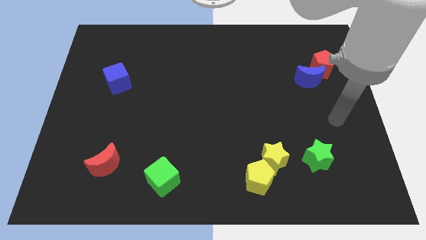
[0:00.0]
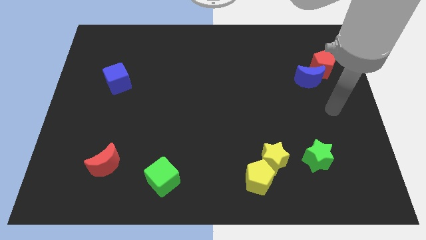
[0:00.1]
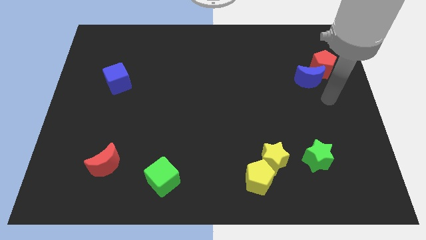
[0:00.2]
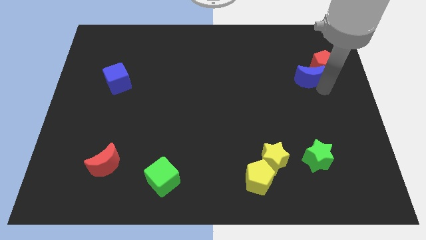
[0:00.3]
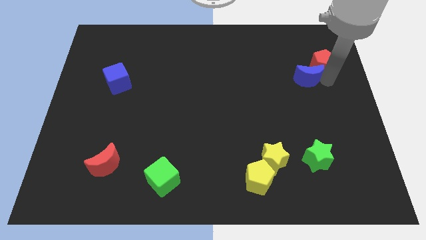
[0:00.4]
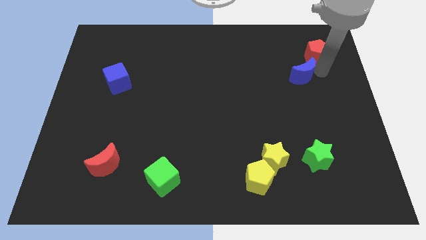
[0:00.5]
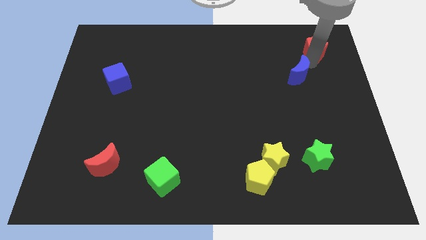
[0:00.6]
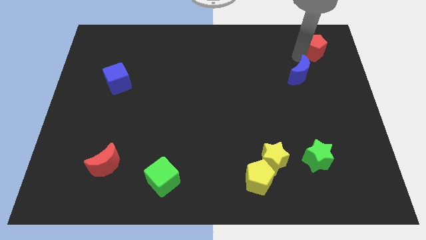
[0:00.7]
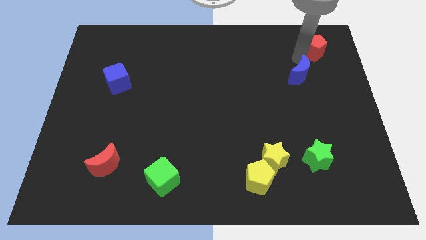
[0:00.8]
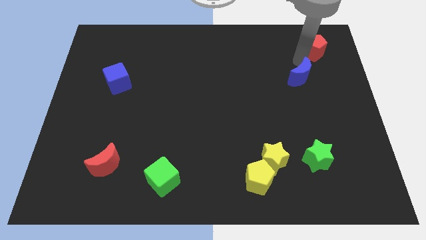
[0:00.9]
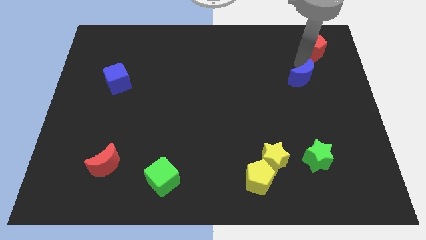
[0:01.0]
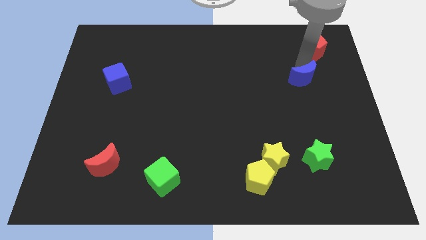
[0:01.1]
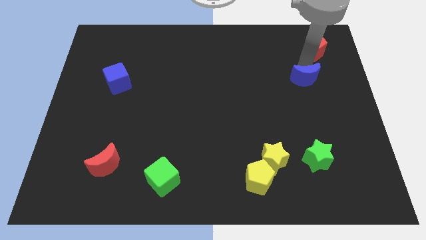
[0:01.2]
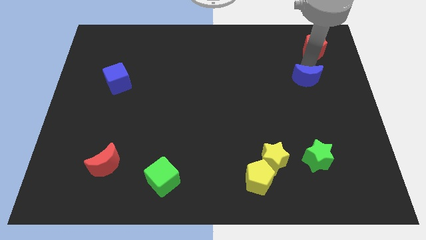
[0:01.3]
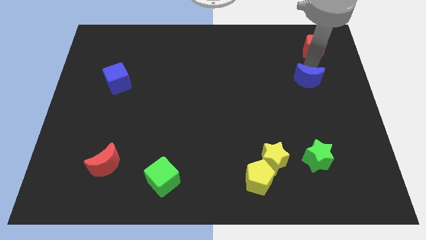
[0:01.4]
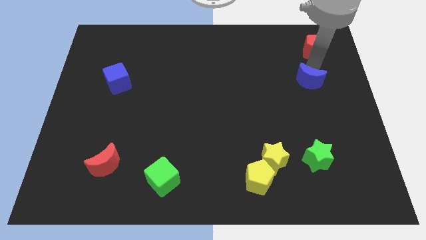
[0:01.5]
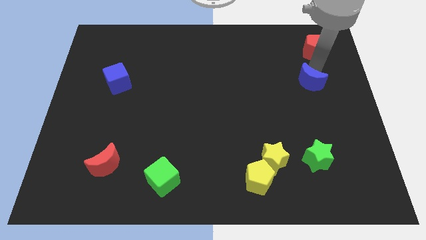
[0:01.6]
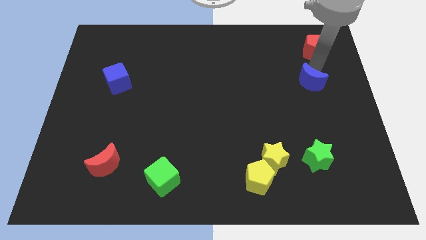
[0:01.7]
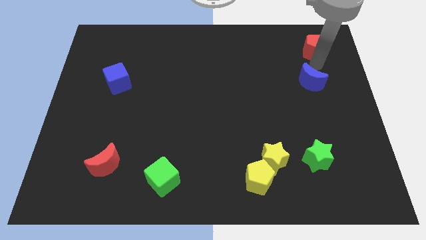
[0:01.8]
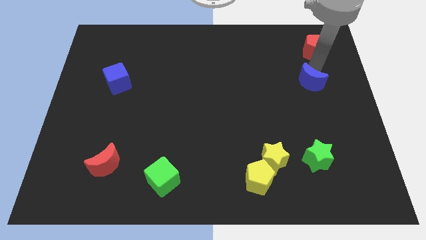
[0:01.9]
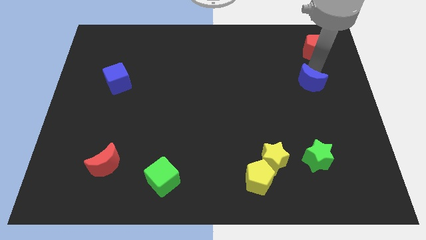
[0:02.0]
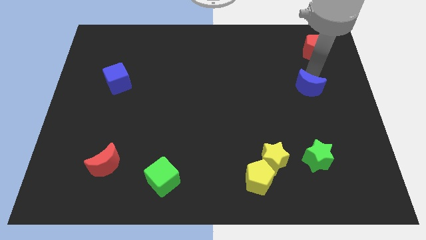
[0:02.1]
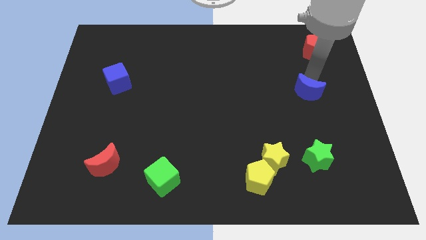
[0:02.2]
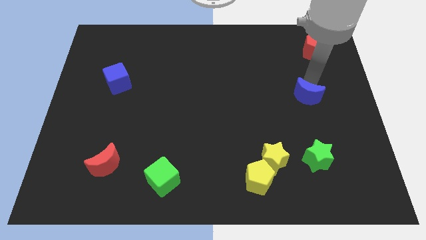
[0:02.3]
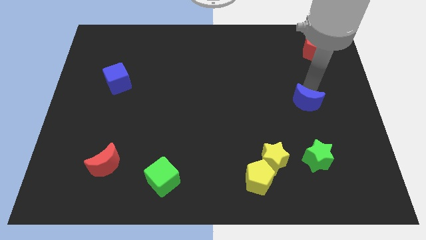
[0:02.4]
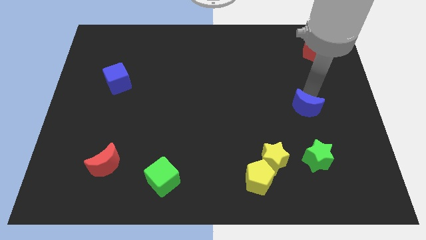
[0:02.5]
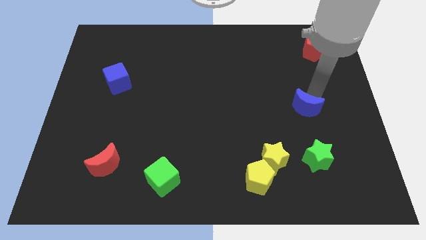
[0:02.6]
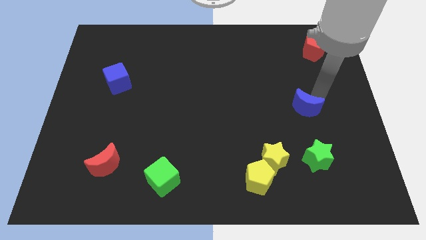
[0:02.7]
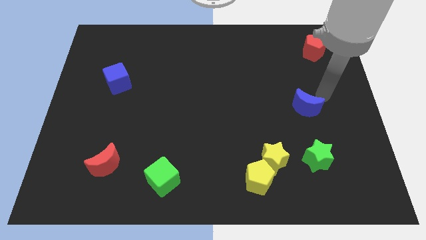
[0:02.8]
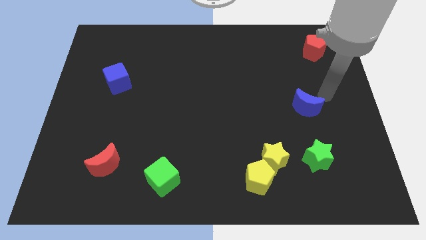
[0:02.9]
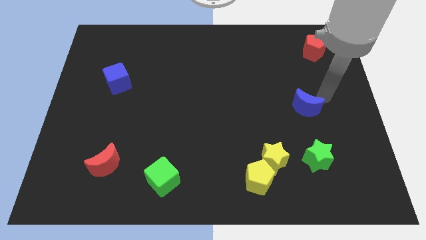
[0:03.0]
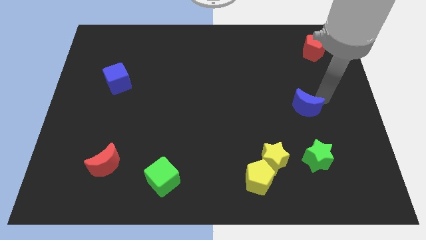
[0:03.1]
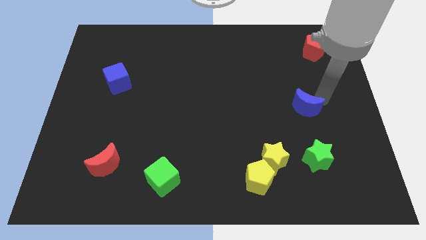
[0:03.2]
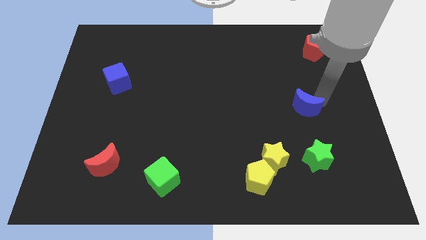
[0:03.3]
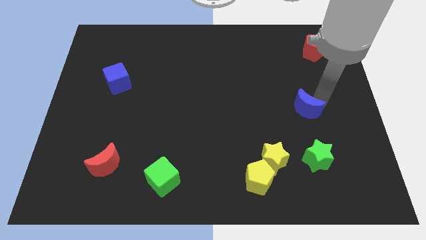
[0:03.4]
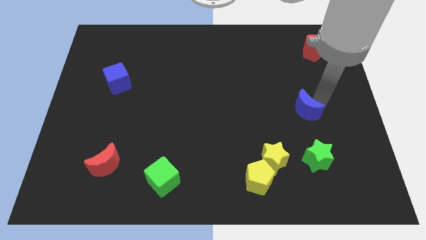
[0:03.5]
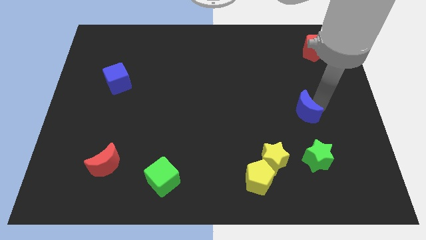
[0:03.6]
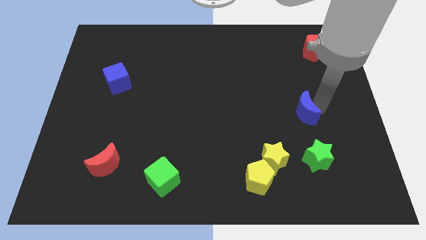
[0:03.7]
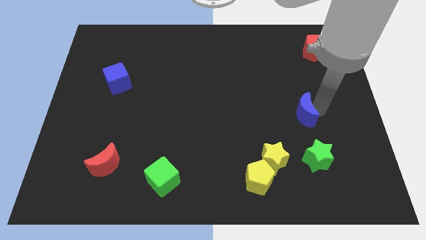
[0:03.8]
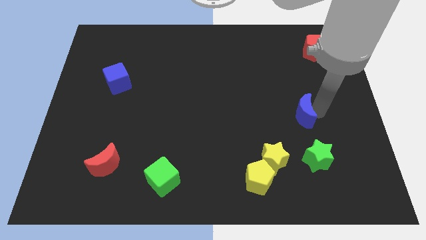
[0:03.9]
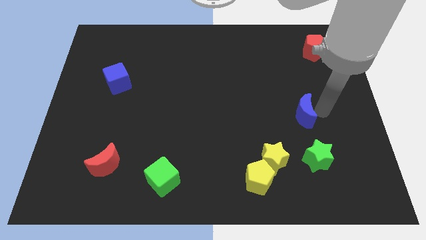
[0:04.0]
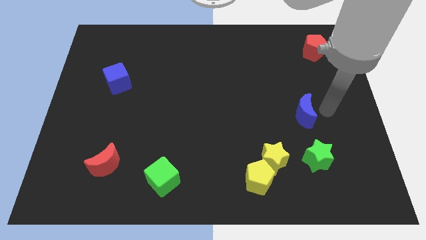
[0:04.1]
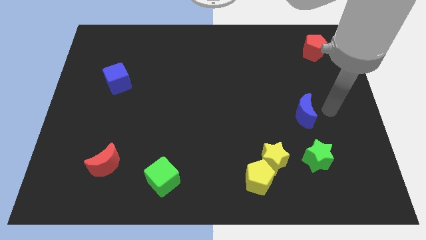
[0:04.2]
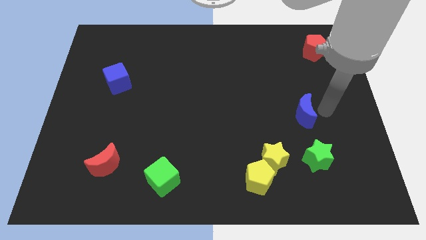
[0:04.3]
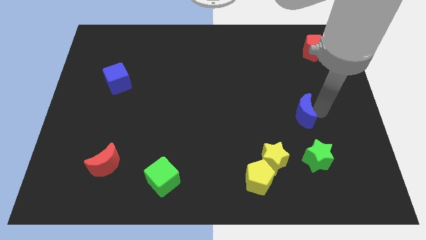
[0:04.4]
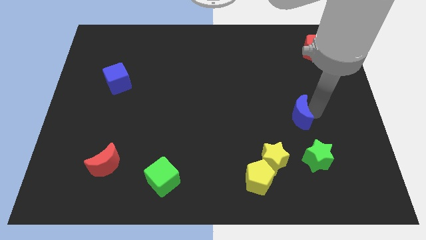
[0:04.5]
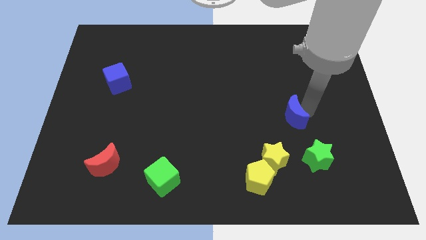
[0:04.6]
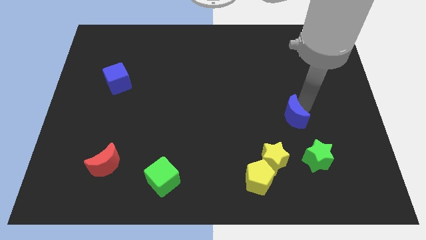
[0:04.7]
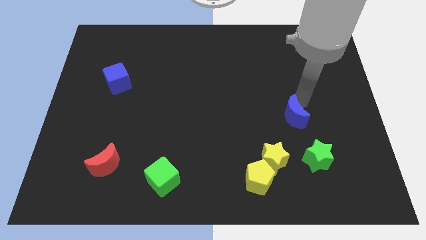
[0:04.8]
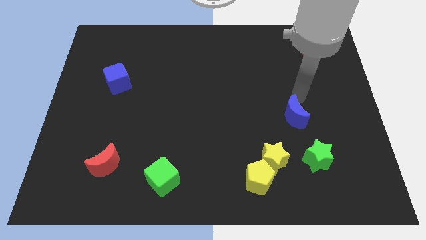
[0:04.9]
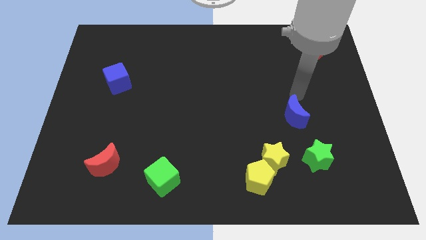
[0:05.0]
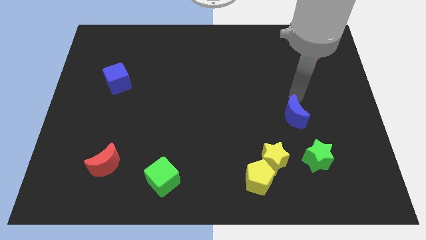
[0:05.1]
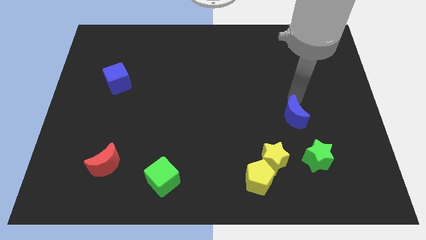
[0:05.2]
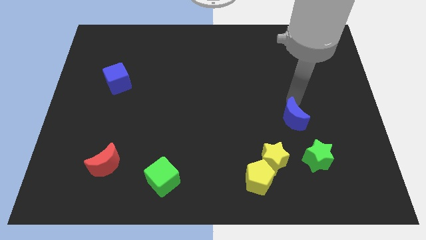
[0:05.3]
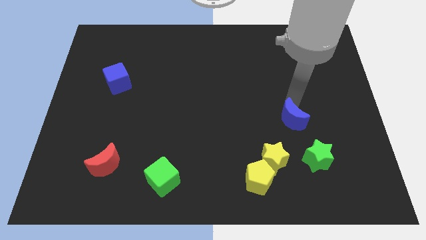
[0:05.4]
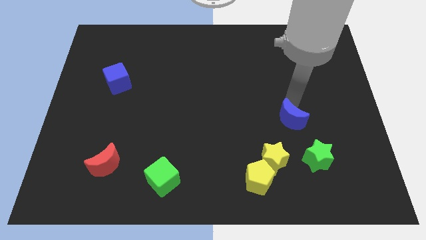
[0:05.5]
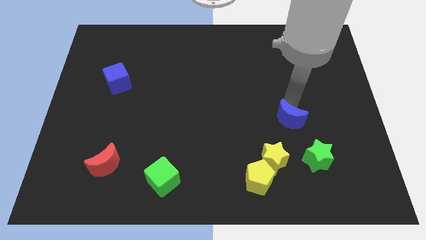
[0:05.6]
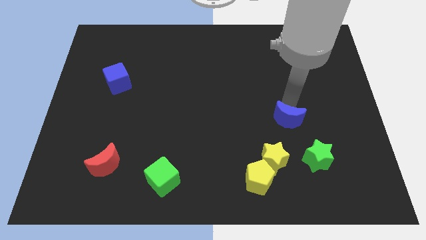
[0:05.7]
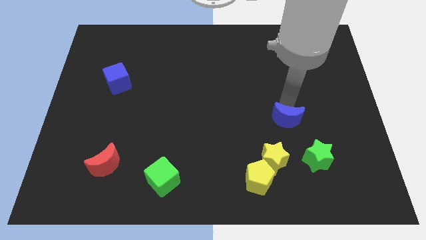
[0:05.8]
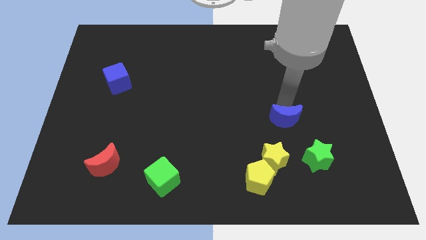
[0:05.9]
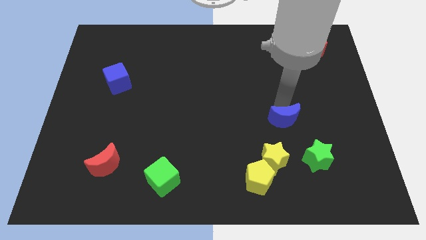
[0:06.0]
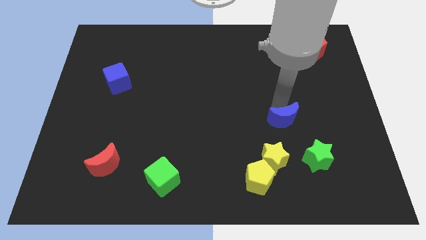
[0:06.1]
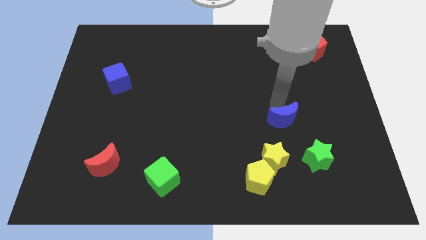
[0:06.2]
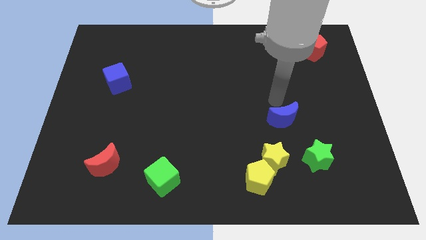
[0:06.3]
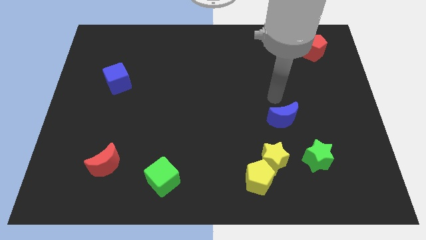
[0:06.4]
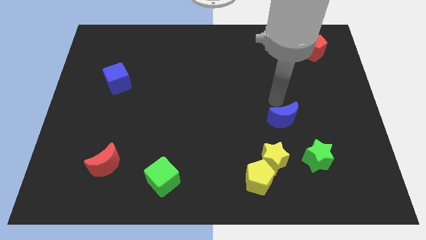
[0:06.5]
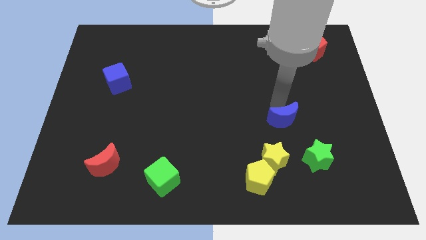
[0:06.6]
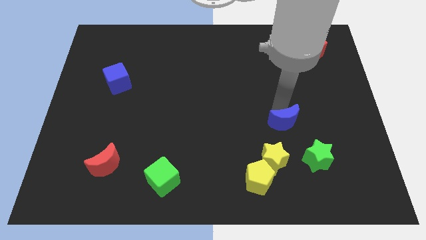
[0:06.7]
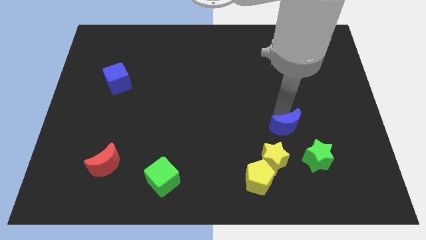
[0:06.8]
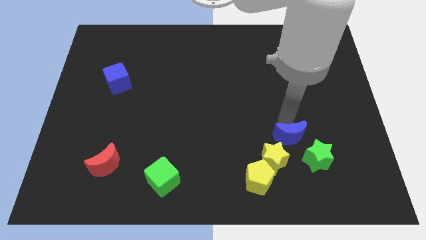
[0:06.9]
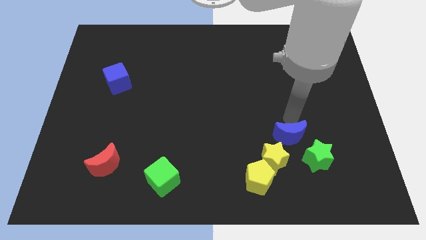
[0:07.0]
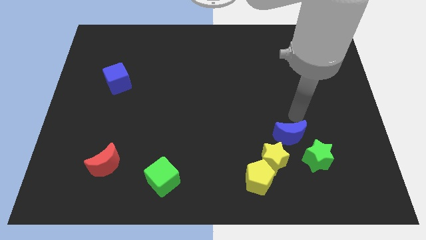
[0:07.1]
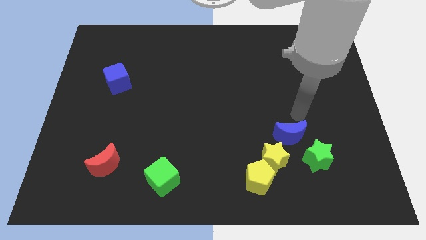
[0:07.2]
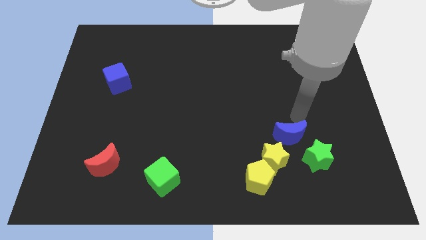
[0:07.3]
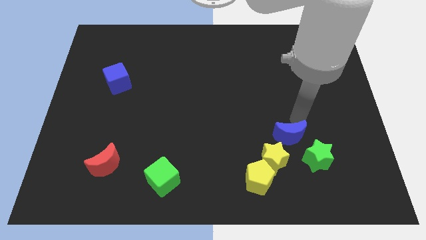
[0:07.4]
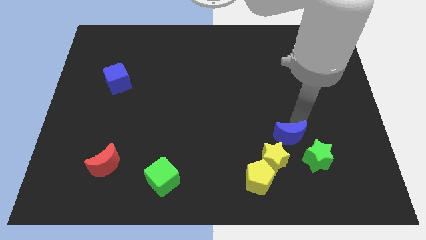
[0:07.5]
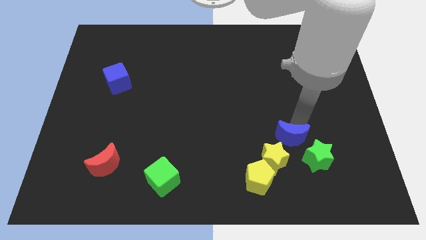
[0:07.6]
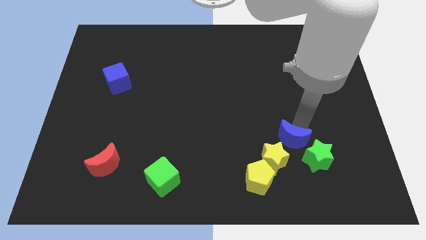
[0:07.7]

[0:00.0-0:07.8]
push the blue moon to the top right side of the yellow pentagon
